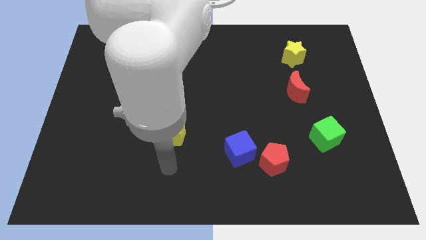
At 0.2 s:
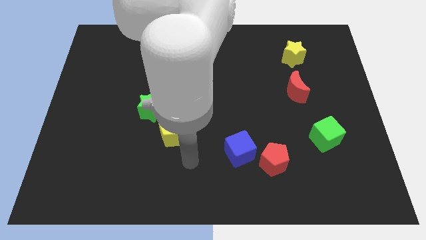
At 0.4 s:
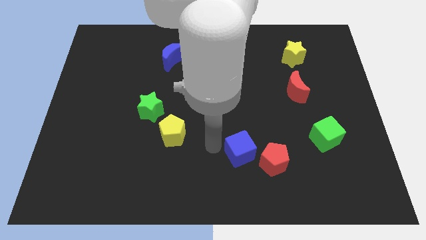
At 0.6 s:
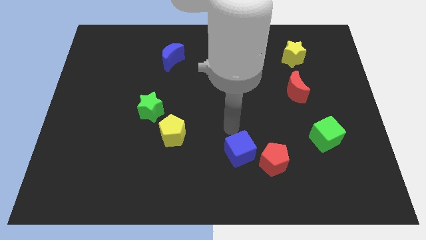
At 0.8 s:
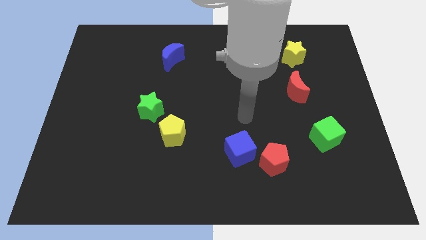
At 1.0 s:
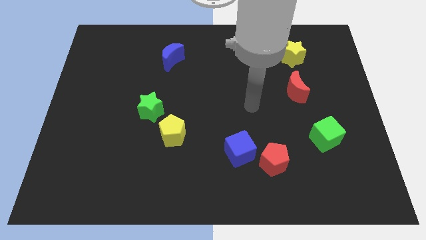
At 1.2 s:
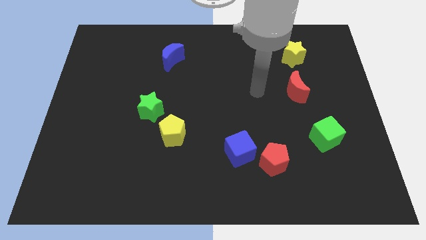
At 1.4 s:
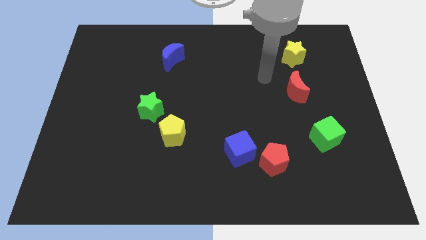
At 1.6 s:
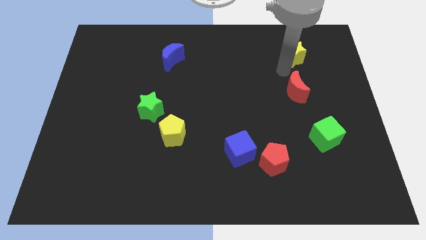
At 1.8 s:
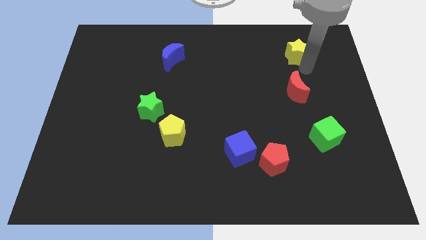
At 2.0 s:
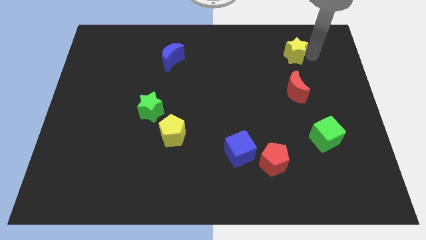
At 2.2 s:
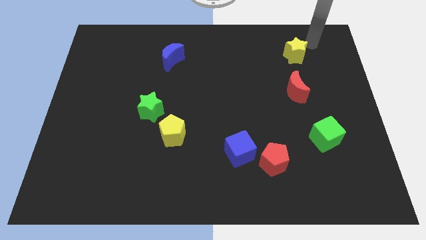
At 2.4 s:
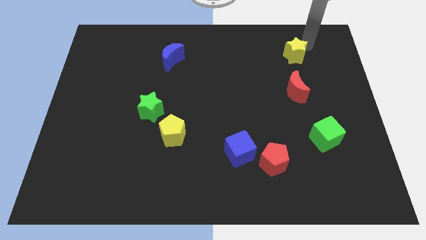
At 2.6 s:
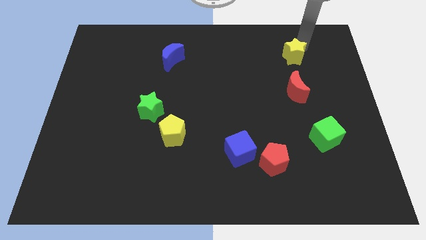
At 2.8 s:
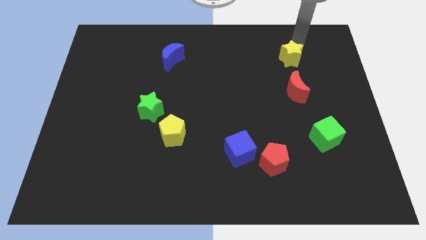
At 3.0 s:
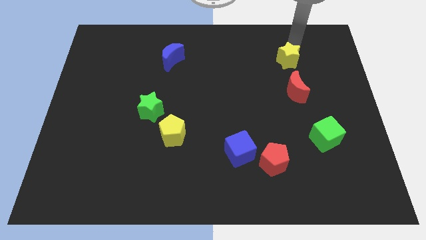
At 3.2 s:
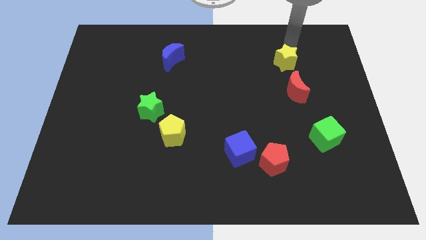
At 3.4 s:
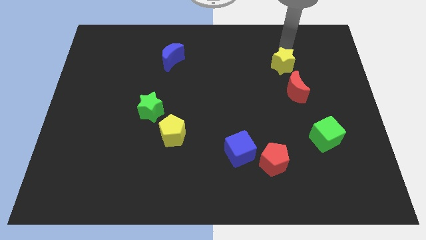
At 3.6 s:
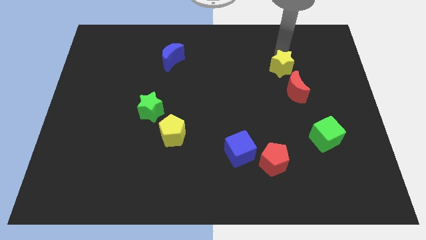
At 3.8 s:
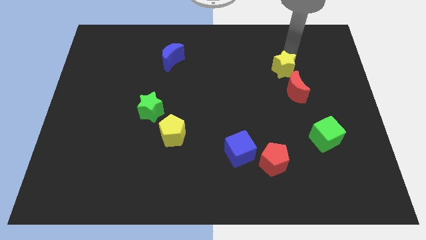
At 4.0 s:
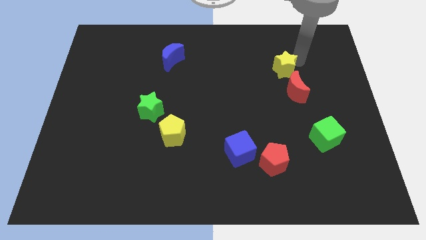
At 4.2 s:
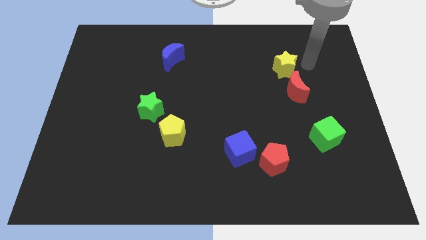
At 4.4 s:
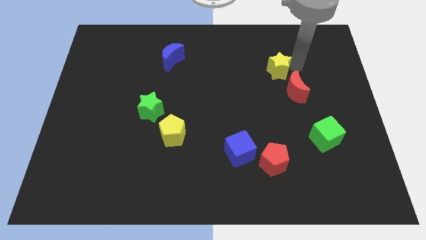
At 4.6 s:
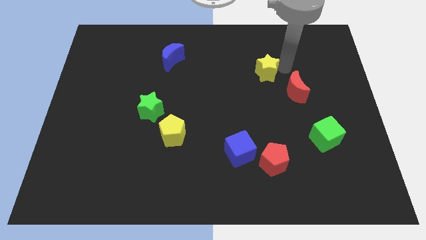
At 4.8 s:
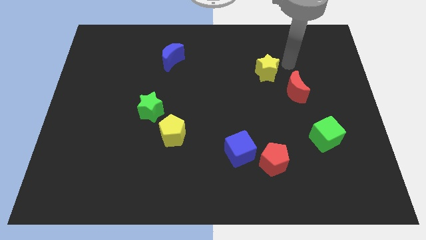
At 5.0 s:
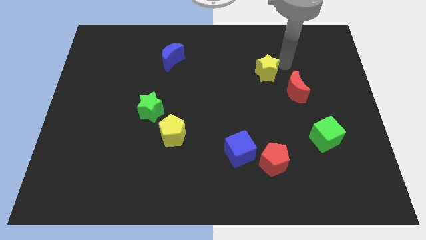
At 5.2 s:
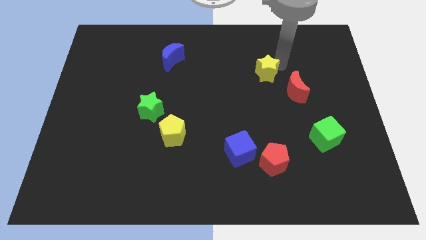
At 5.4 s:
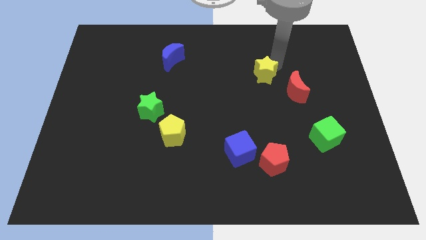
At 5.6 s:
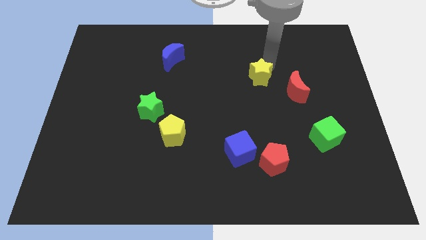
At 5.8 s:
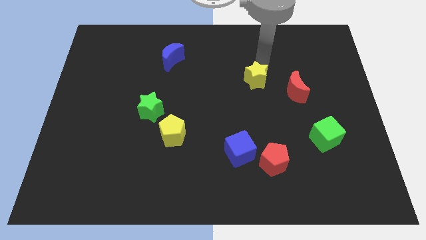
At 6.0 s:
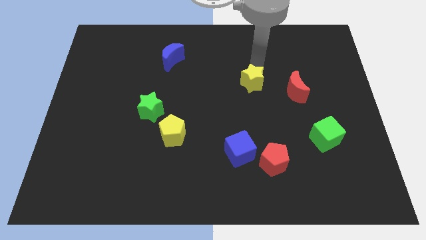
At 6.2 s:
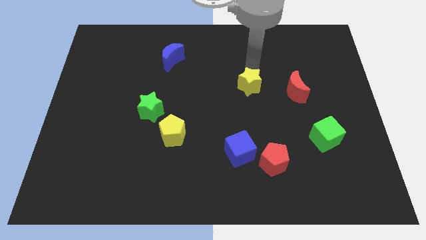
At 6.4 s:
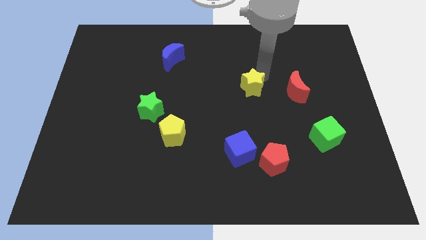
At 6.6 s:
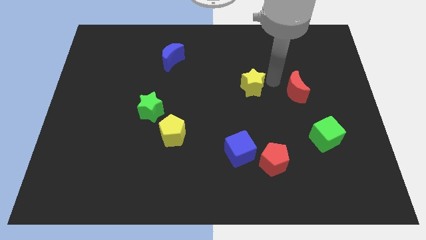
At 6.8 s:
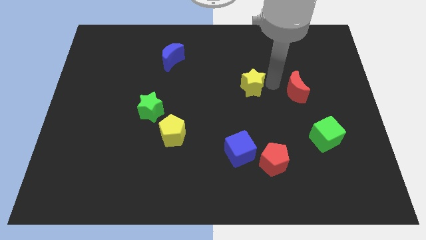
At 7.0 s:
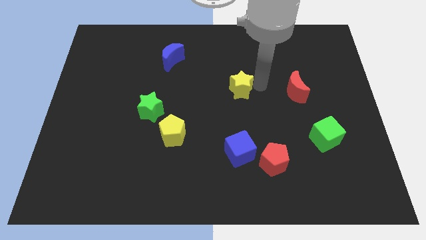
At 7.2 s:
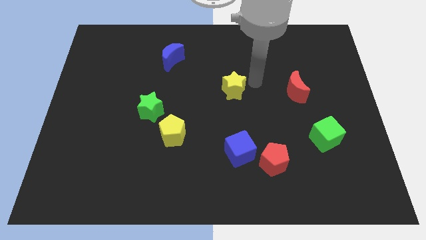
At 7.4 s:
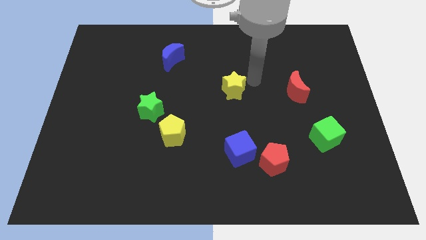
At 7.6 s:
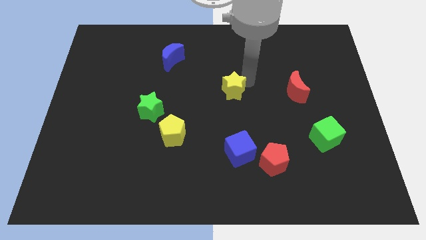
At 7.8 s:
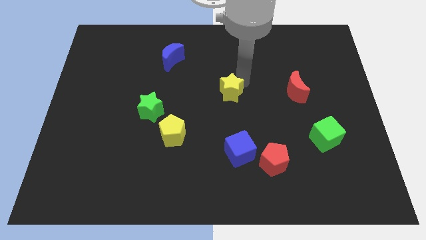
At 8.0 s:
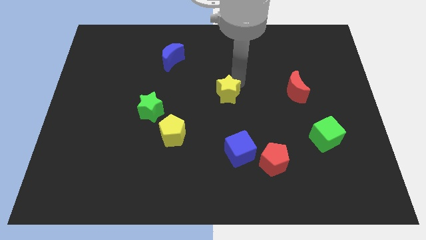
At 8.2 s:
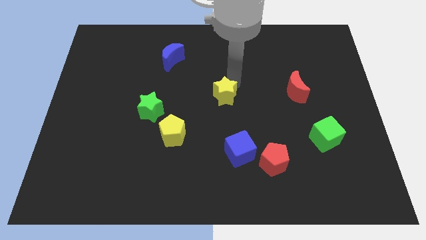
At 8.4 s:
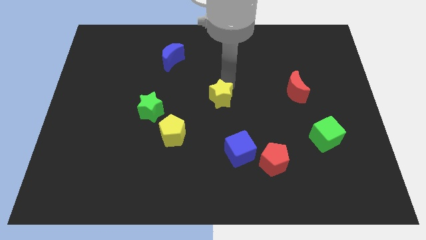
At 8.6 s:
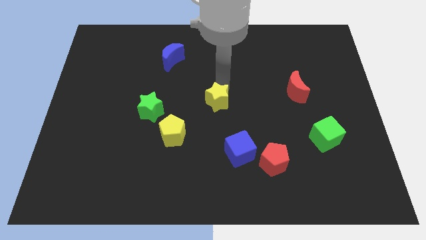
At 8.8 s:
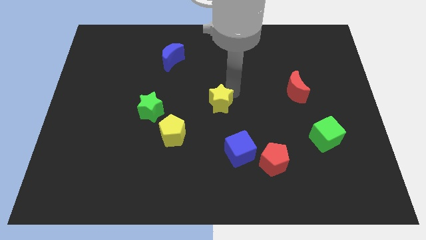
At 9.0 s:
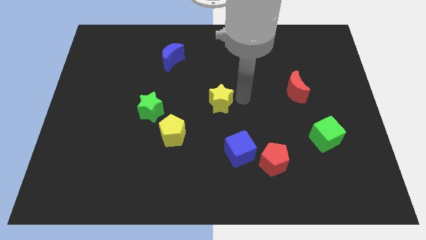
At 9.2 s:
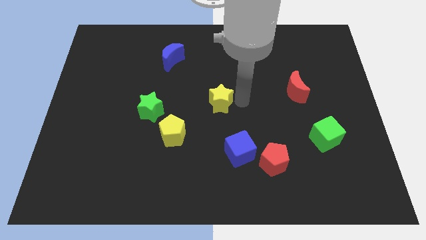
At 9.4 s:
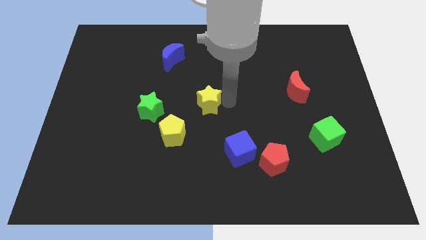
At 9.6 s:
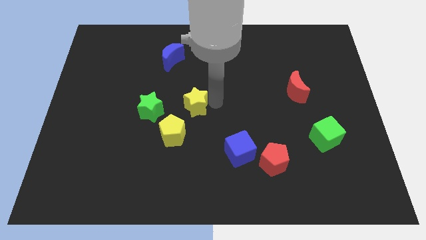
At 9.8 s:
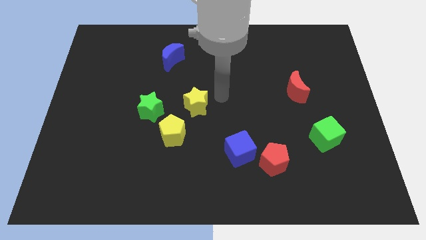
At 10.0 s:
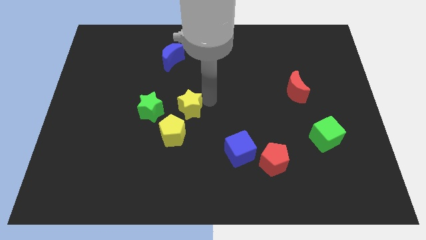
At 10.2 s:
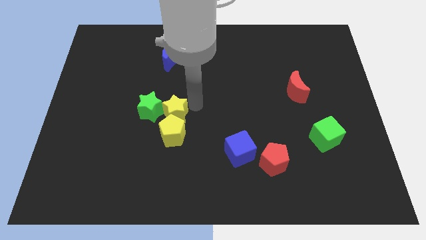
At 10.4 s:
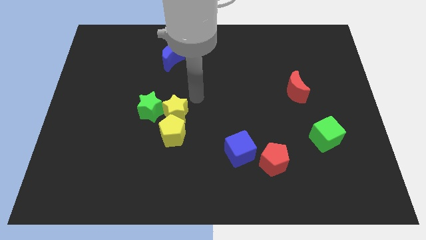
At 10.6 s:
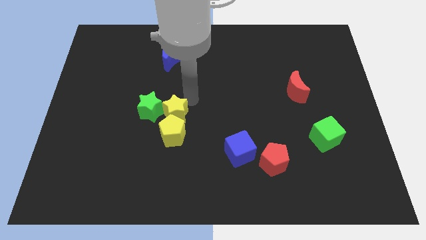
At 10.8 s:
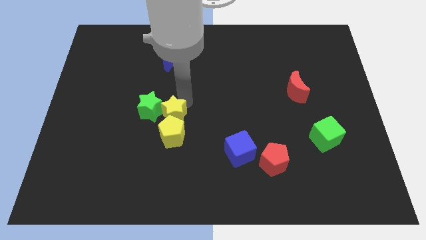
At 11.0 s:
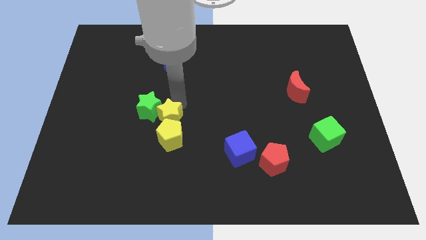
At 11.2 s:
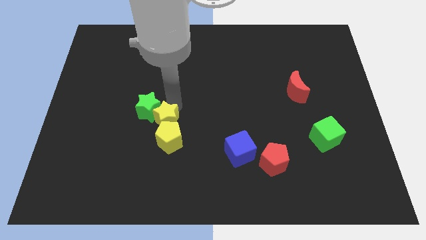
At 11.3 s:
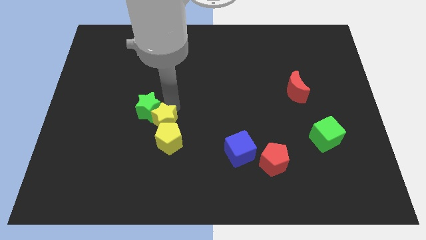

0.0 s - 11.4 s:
move the yellow star below the green star

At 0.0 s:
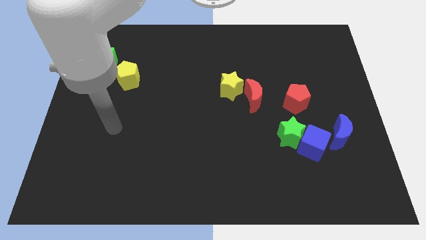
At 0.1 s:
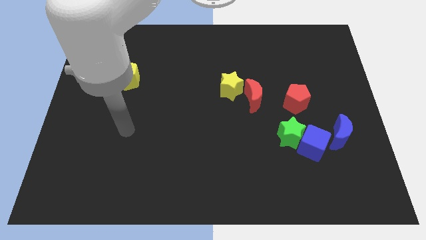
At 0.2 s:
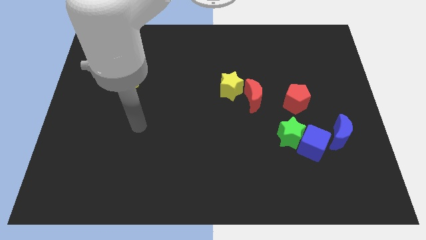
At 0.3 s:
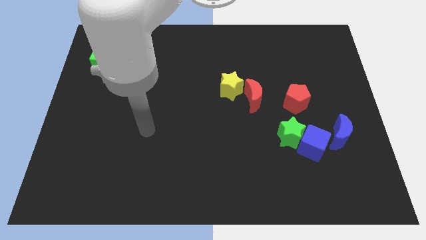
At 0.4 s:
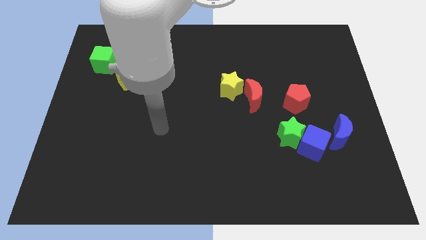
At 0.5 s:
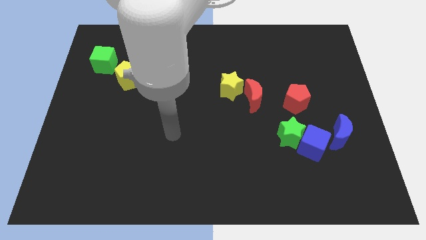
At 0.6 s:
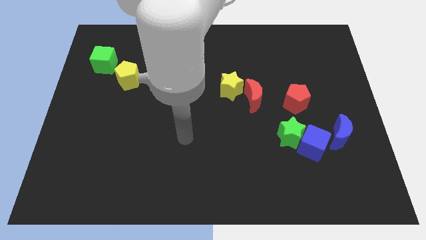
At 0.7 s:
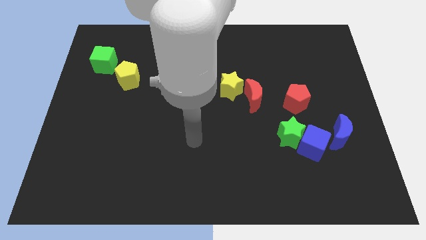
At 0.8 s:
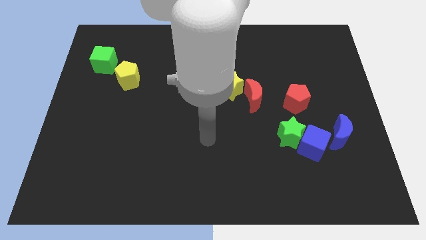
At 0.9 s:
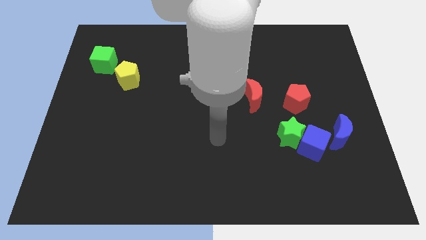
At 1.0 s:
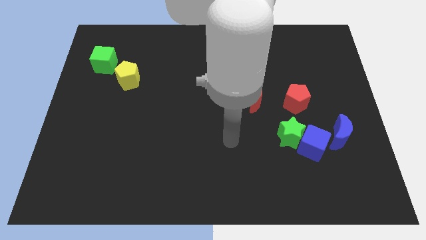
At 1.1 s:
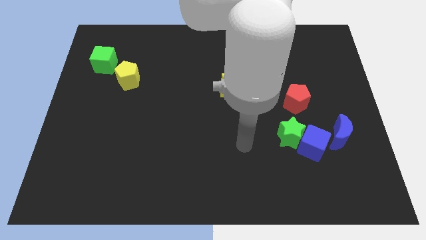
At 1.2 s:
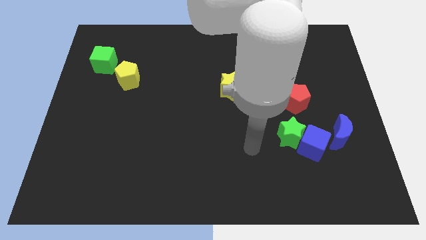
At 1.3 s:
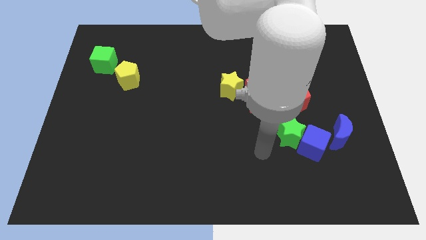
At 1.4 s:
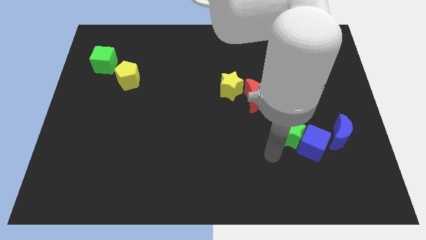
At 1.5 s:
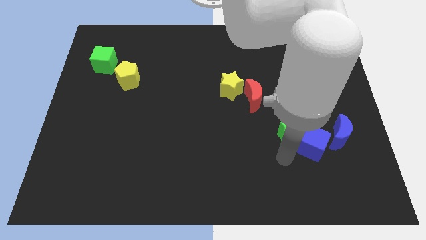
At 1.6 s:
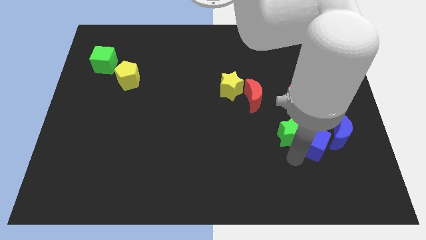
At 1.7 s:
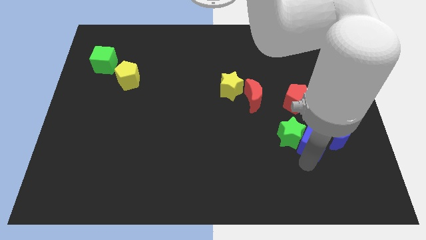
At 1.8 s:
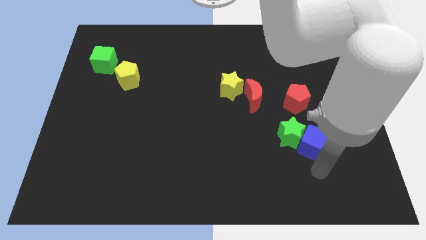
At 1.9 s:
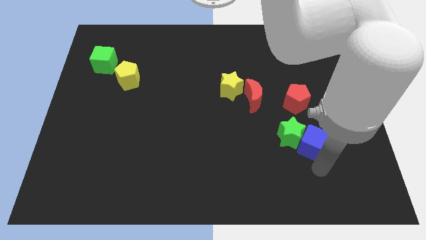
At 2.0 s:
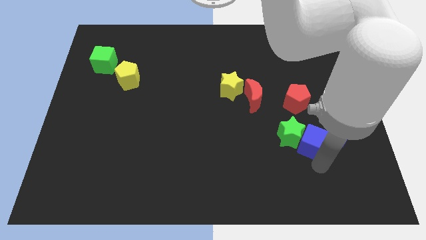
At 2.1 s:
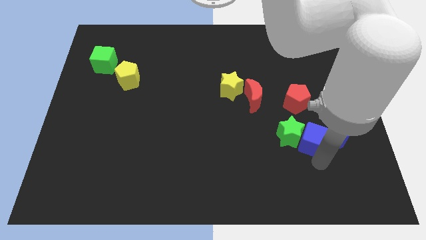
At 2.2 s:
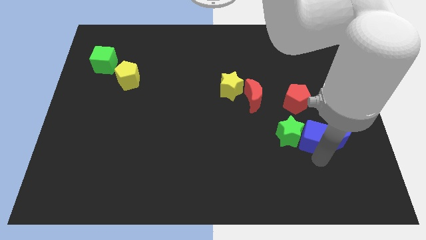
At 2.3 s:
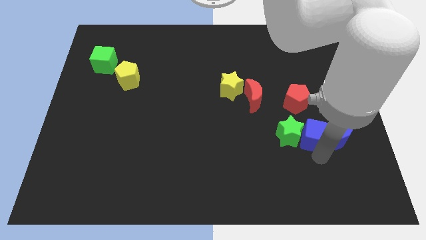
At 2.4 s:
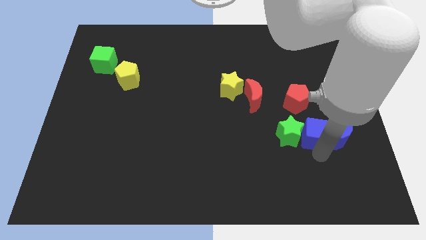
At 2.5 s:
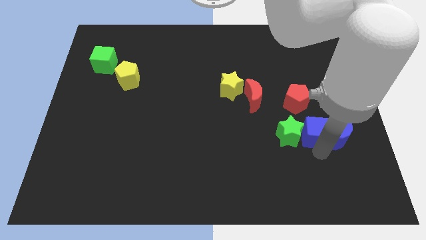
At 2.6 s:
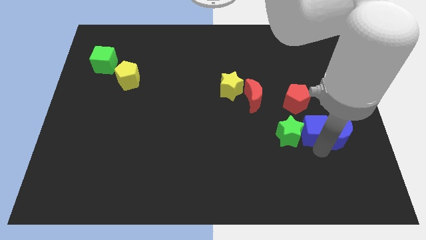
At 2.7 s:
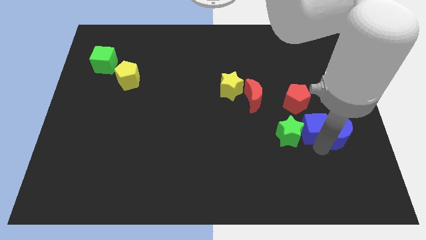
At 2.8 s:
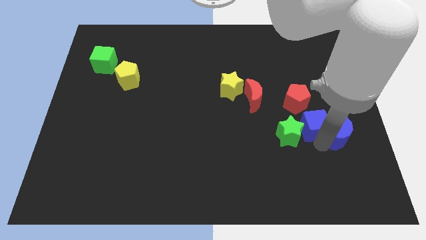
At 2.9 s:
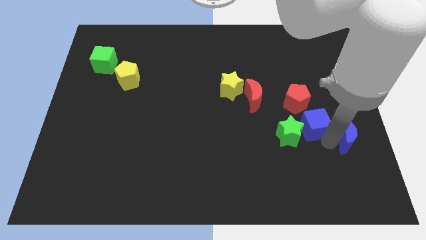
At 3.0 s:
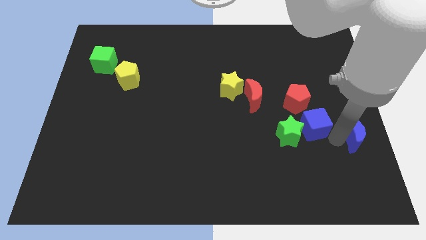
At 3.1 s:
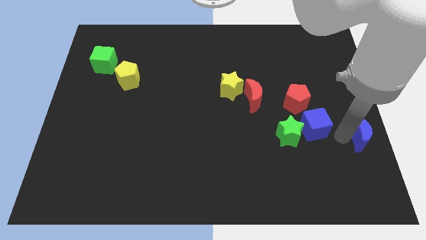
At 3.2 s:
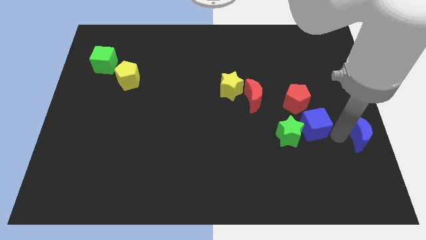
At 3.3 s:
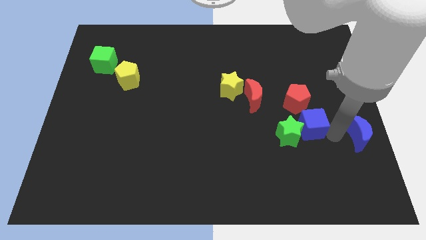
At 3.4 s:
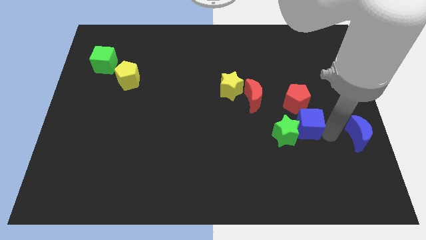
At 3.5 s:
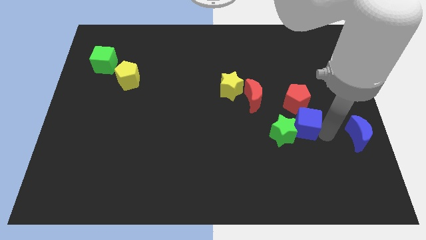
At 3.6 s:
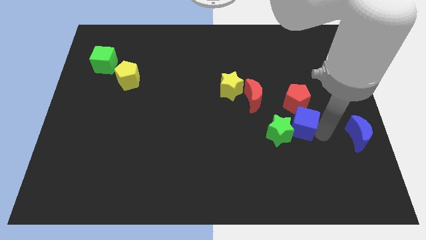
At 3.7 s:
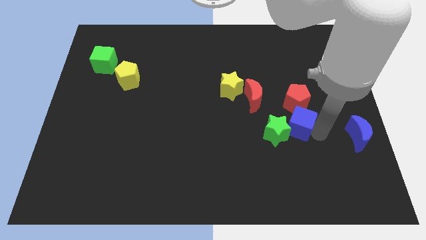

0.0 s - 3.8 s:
move the blue cube diagonally down and to the right of the red moon
